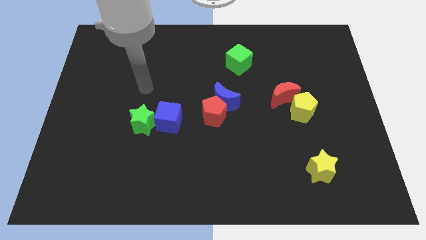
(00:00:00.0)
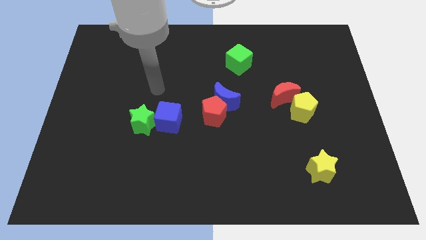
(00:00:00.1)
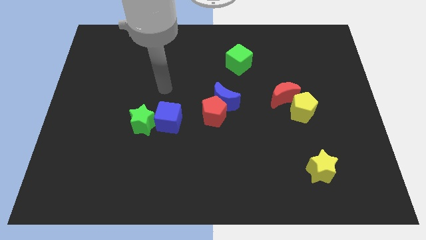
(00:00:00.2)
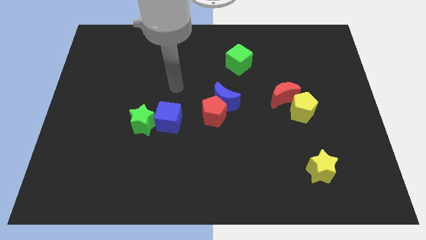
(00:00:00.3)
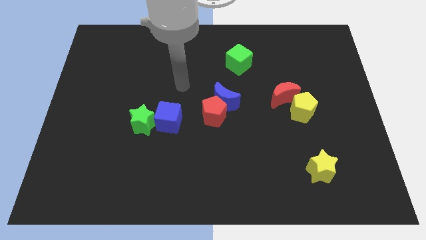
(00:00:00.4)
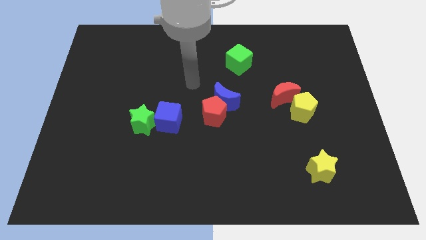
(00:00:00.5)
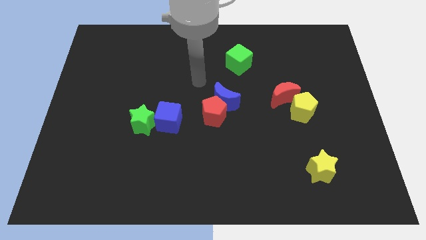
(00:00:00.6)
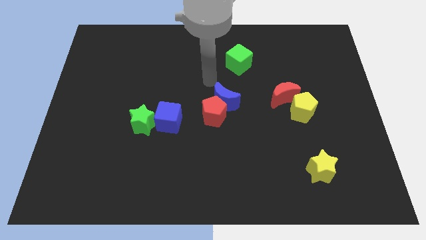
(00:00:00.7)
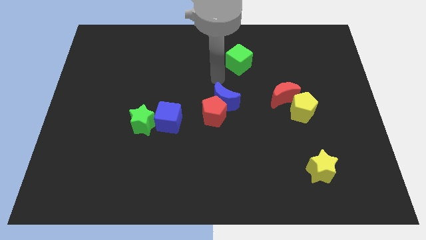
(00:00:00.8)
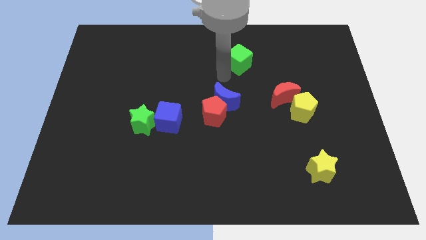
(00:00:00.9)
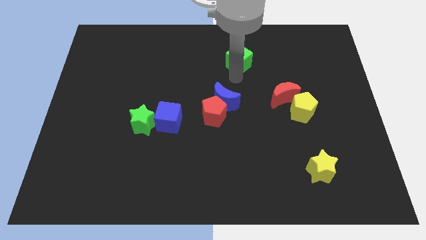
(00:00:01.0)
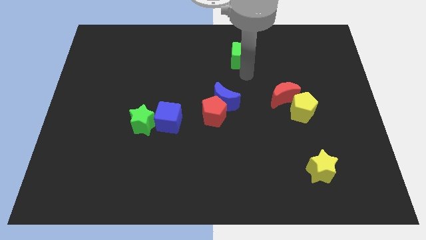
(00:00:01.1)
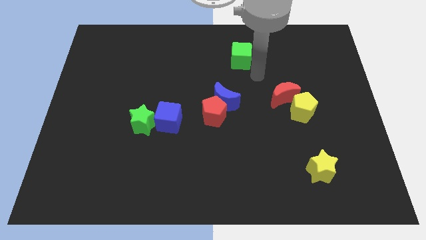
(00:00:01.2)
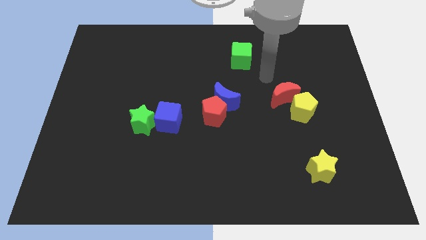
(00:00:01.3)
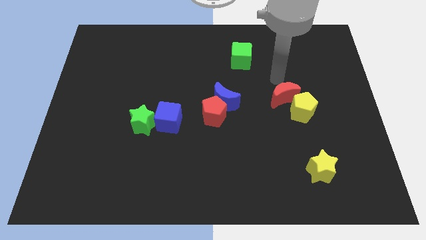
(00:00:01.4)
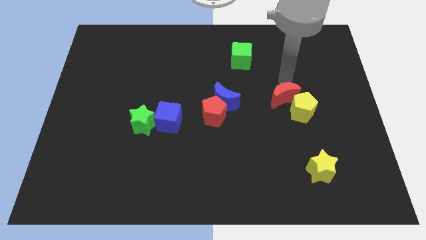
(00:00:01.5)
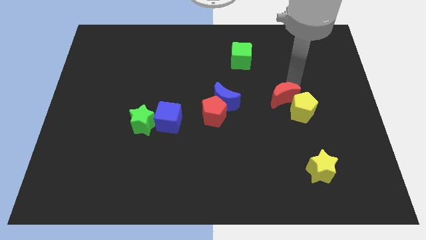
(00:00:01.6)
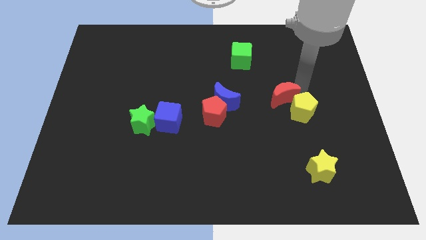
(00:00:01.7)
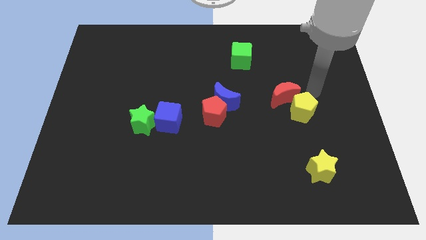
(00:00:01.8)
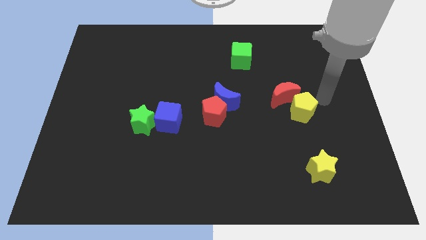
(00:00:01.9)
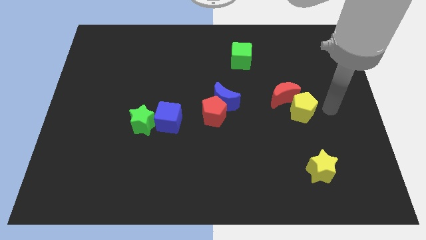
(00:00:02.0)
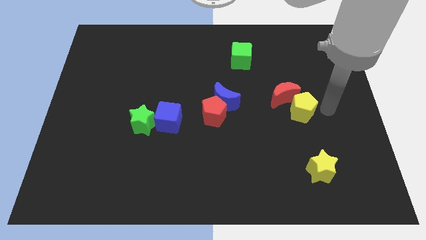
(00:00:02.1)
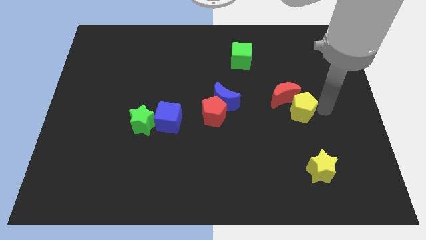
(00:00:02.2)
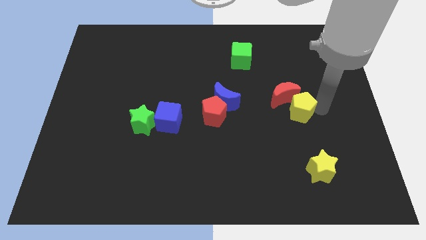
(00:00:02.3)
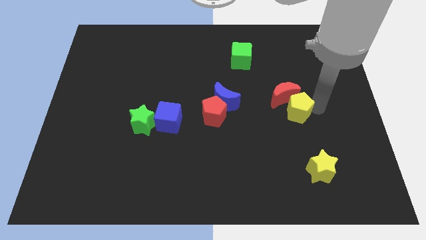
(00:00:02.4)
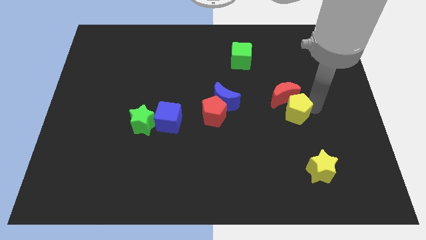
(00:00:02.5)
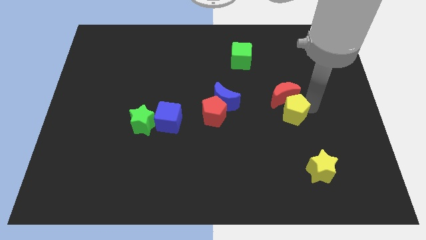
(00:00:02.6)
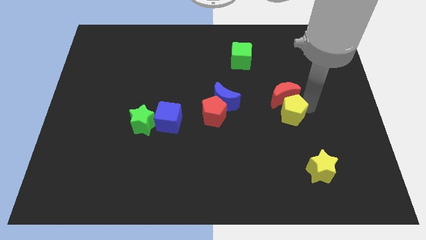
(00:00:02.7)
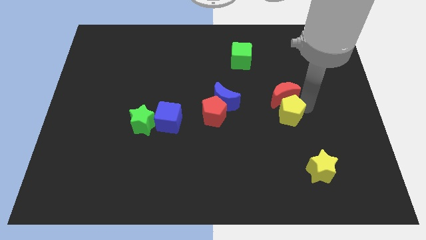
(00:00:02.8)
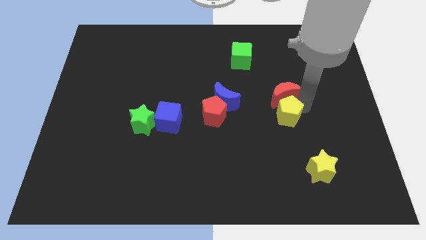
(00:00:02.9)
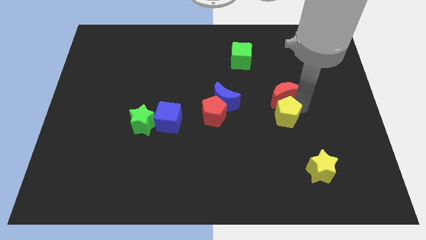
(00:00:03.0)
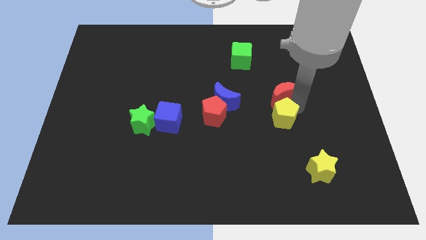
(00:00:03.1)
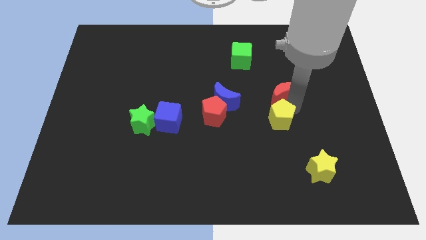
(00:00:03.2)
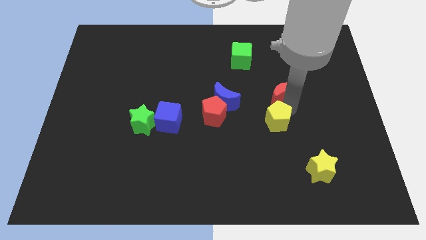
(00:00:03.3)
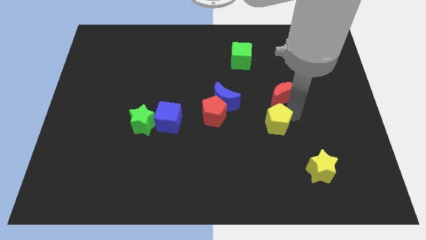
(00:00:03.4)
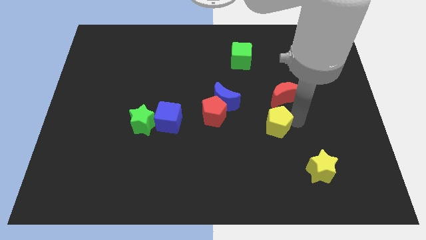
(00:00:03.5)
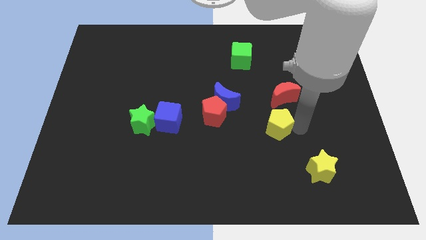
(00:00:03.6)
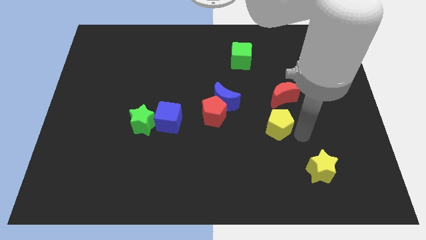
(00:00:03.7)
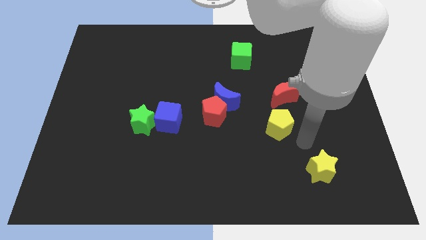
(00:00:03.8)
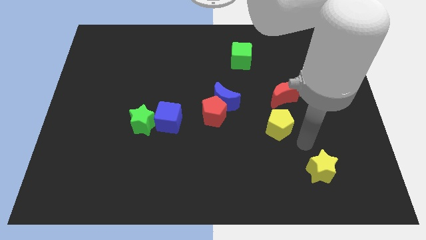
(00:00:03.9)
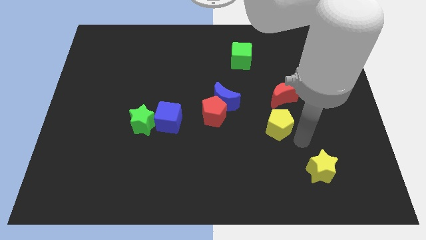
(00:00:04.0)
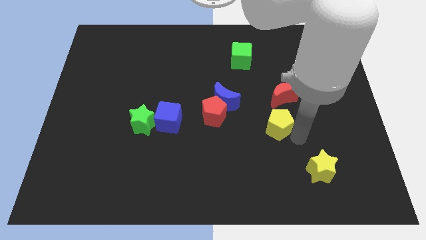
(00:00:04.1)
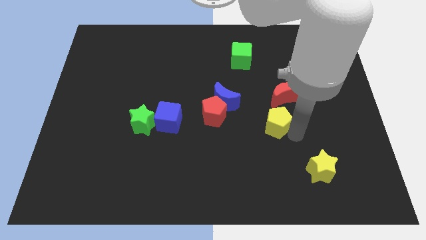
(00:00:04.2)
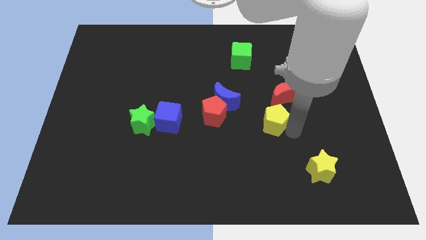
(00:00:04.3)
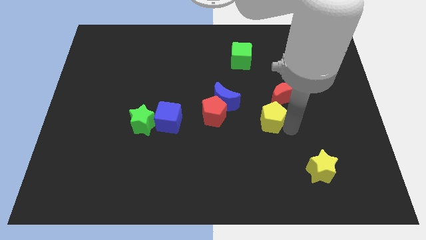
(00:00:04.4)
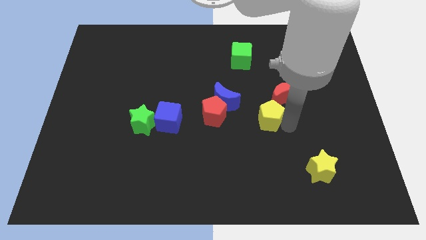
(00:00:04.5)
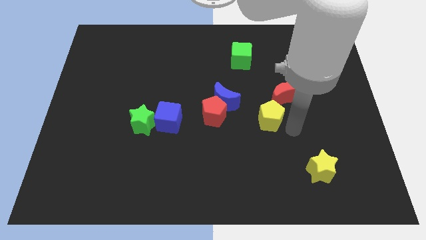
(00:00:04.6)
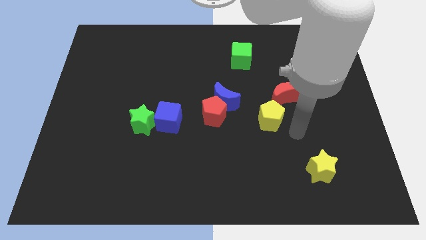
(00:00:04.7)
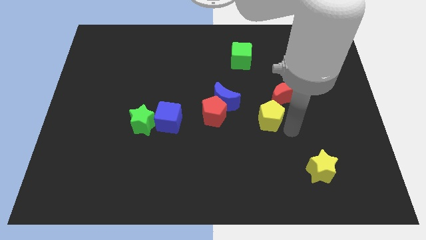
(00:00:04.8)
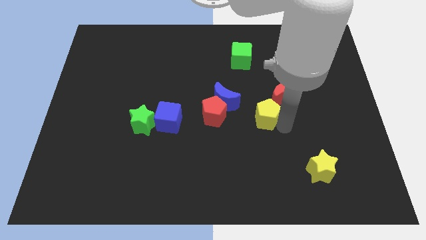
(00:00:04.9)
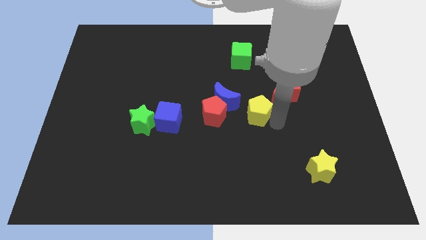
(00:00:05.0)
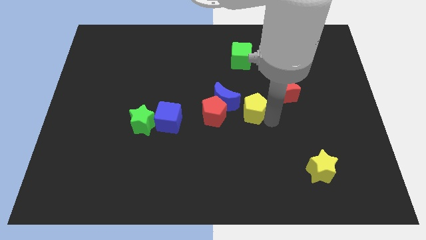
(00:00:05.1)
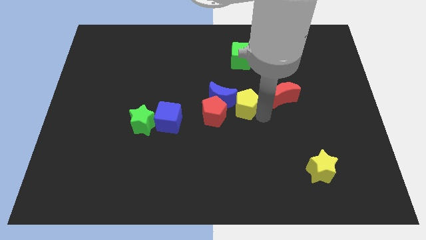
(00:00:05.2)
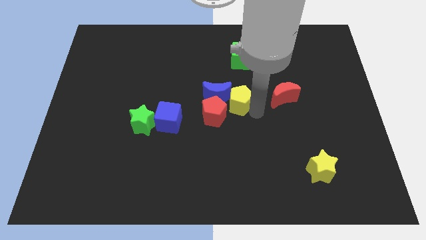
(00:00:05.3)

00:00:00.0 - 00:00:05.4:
slide the yellow pentagon towards the blue moon

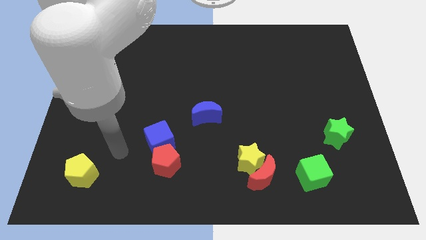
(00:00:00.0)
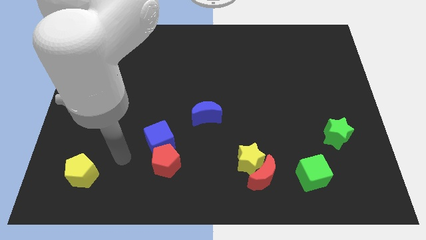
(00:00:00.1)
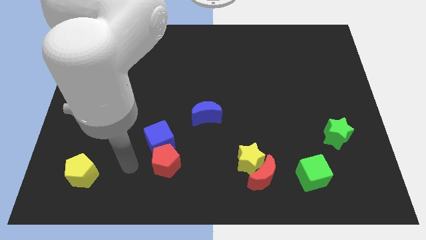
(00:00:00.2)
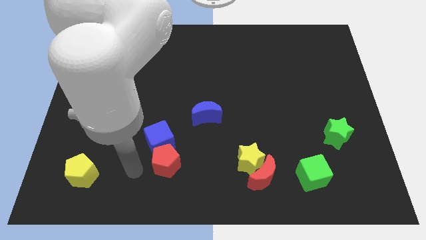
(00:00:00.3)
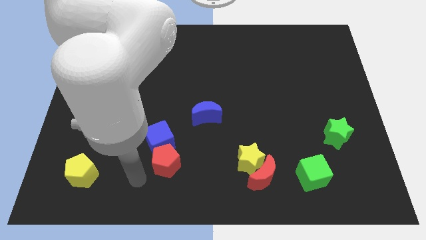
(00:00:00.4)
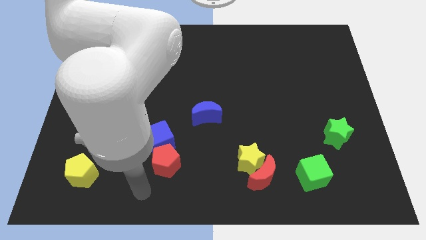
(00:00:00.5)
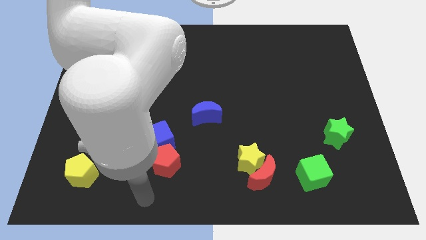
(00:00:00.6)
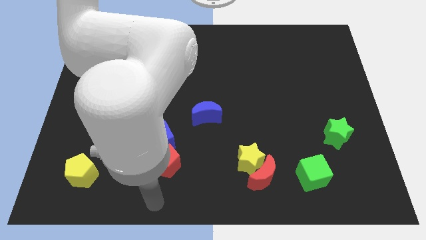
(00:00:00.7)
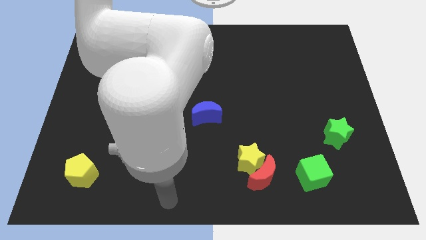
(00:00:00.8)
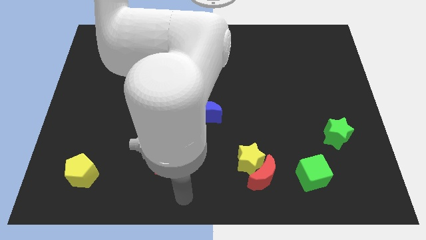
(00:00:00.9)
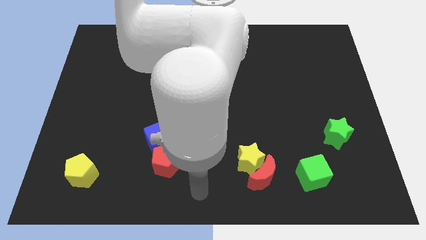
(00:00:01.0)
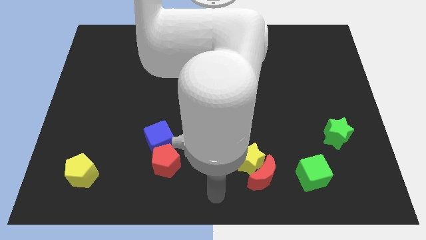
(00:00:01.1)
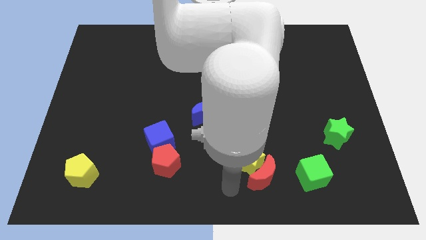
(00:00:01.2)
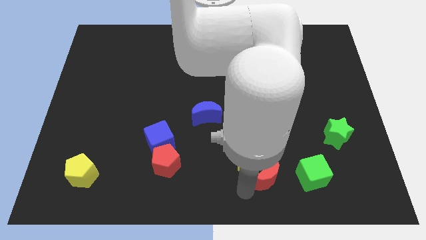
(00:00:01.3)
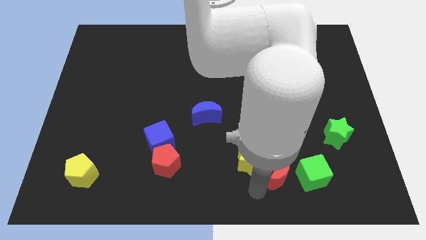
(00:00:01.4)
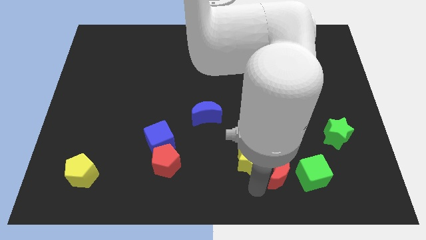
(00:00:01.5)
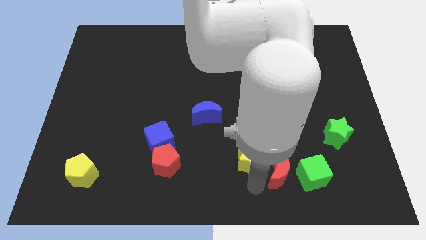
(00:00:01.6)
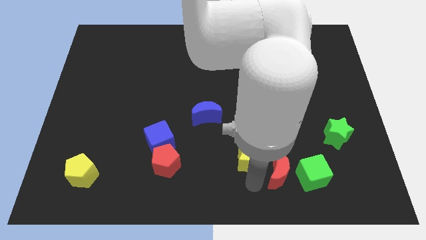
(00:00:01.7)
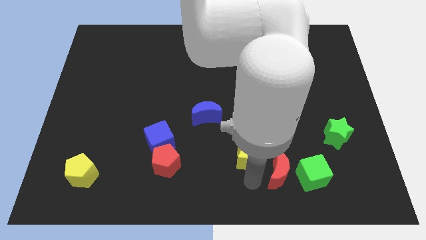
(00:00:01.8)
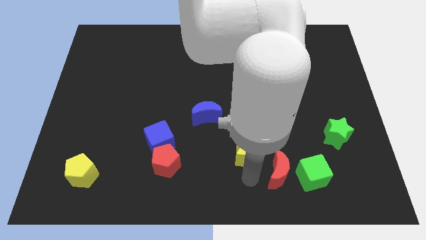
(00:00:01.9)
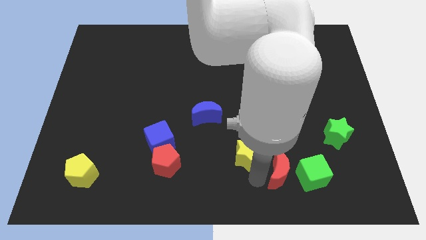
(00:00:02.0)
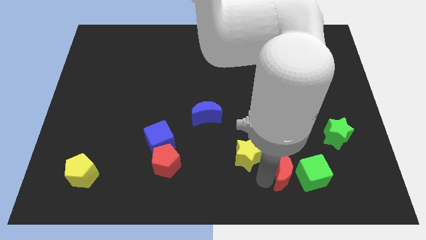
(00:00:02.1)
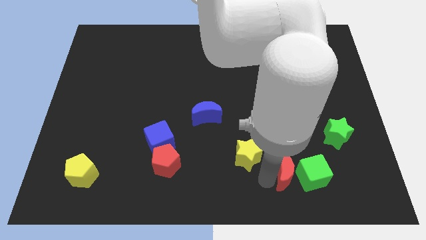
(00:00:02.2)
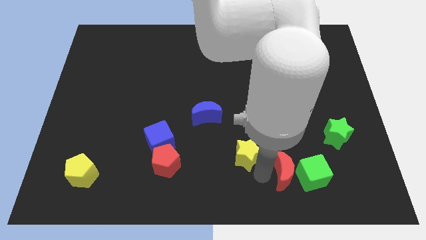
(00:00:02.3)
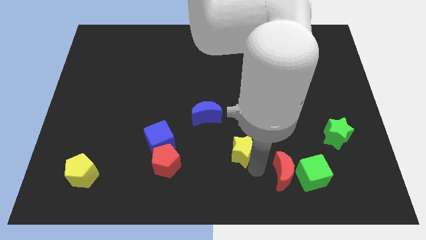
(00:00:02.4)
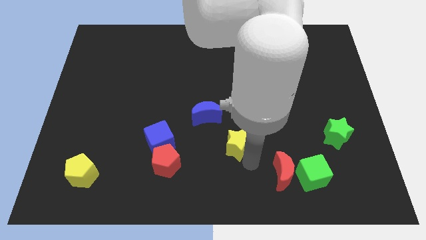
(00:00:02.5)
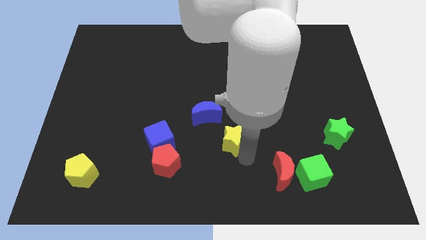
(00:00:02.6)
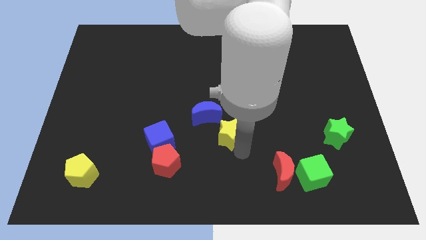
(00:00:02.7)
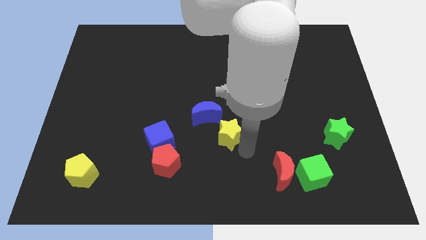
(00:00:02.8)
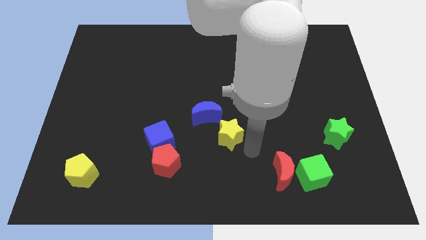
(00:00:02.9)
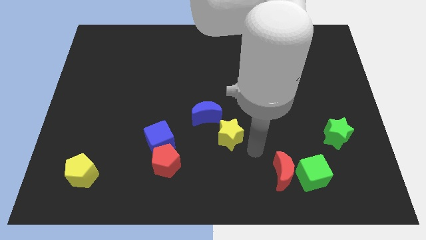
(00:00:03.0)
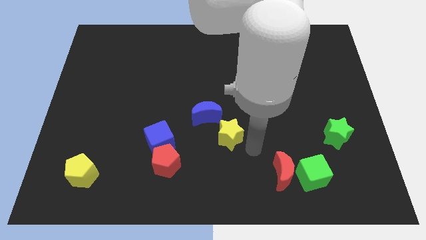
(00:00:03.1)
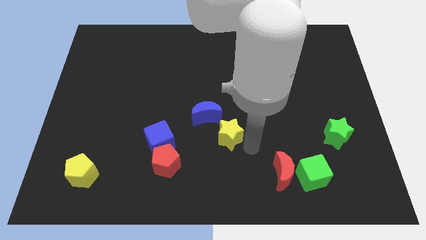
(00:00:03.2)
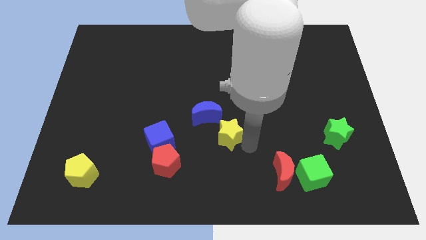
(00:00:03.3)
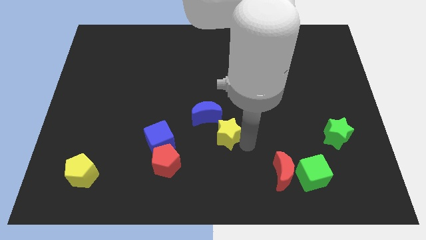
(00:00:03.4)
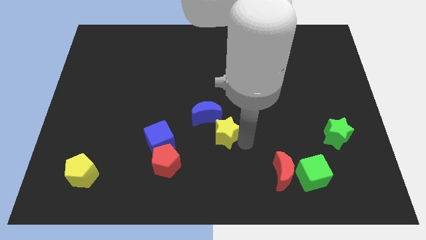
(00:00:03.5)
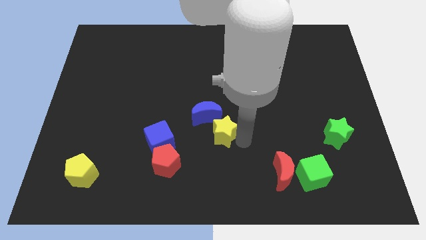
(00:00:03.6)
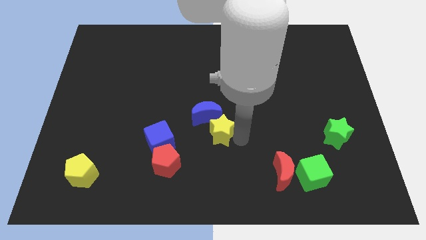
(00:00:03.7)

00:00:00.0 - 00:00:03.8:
move the yellow star towards the blue moon
